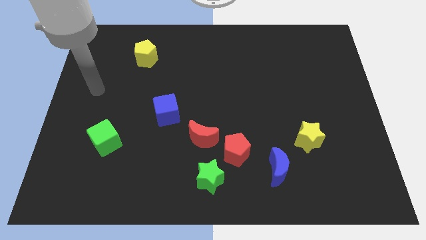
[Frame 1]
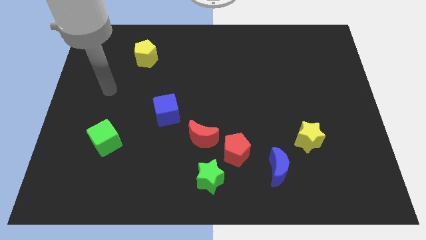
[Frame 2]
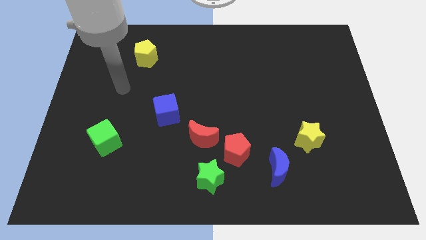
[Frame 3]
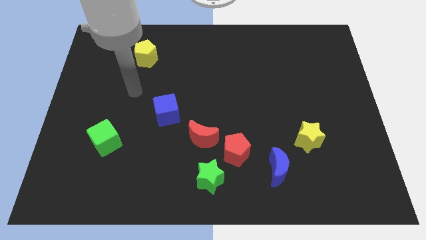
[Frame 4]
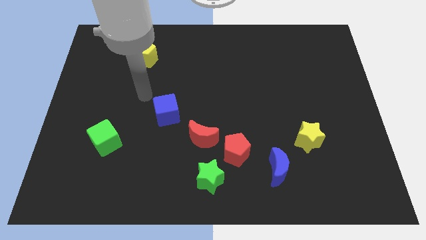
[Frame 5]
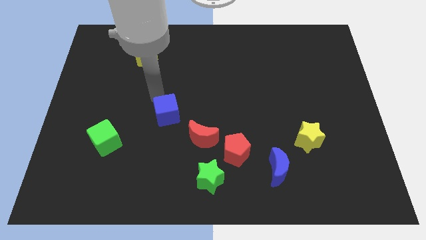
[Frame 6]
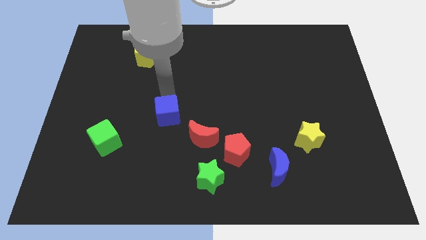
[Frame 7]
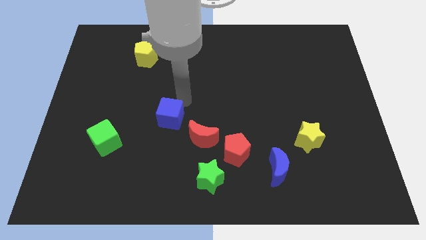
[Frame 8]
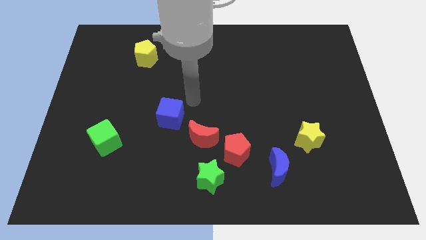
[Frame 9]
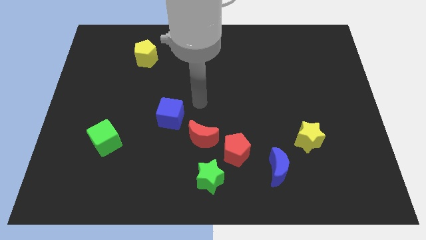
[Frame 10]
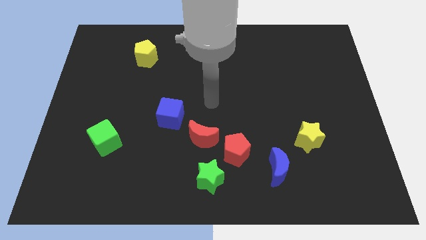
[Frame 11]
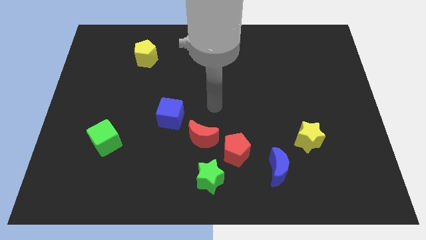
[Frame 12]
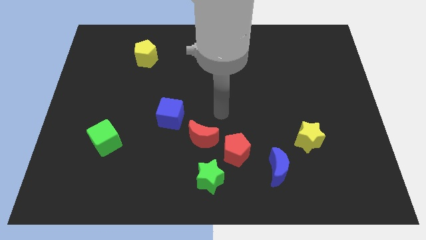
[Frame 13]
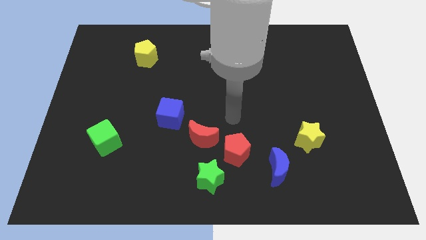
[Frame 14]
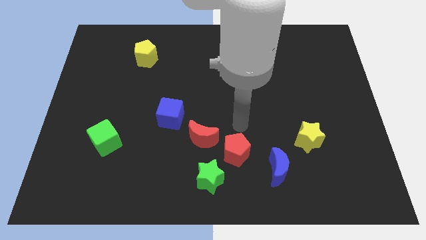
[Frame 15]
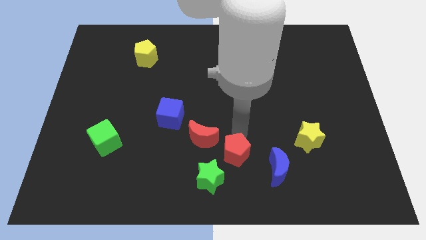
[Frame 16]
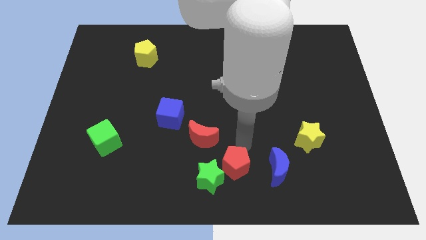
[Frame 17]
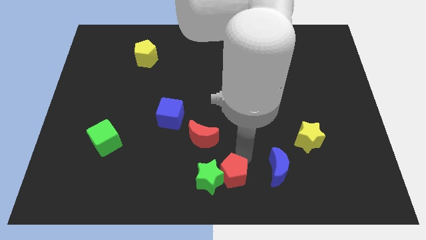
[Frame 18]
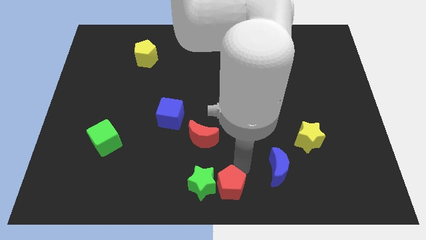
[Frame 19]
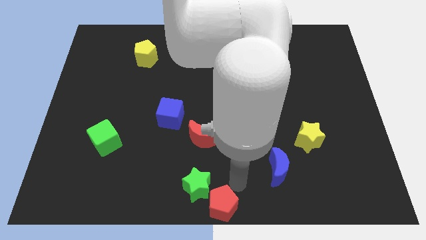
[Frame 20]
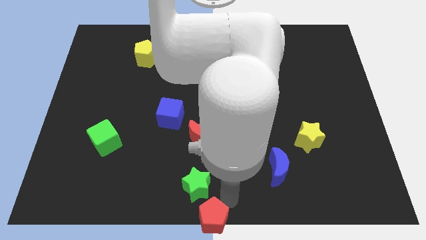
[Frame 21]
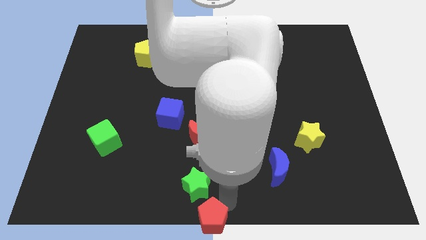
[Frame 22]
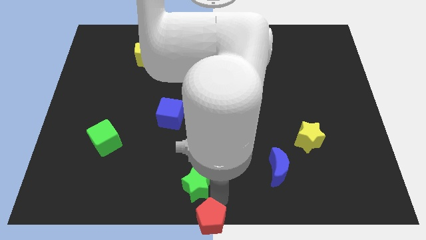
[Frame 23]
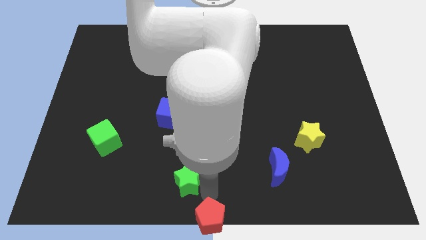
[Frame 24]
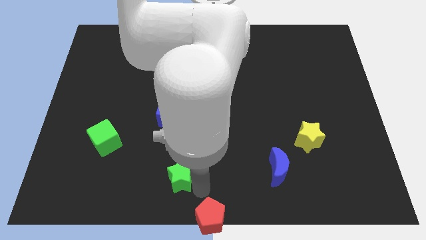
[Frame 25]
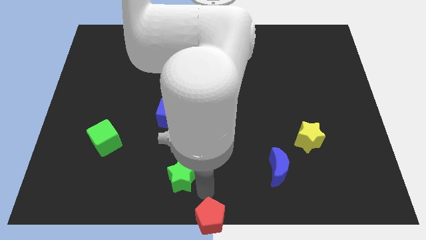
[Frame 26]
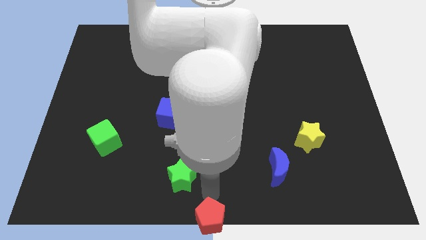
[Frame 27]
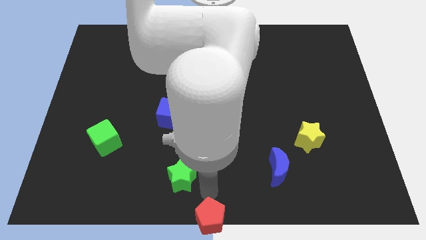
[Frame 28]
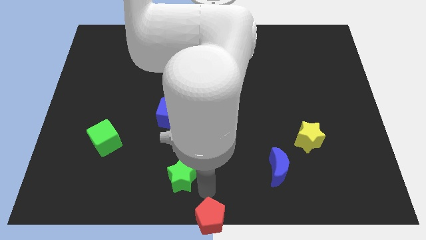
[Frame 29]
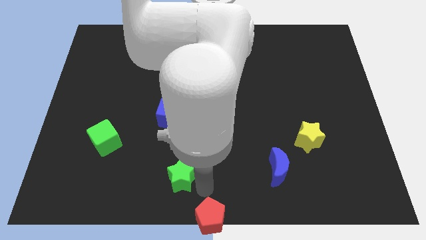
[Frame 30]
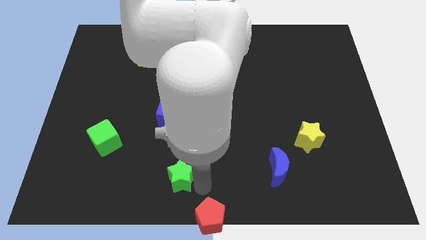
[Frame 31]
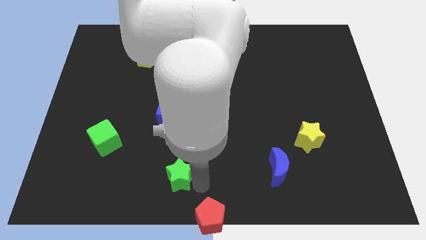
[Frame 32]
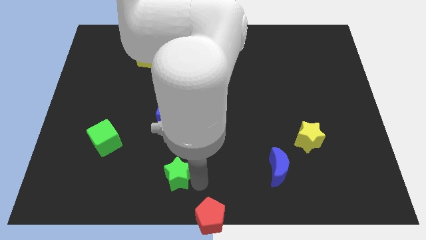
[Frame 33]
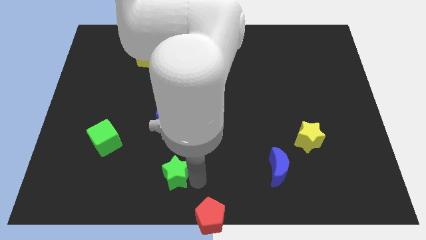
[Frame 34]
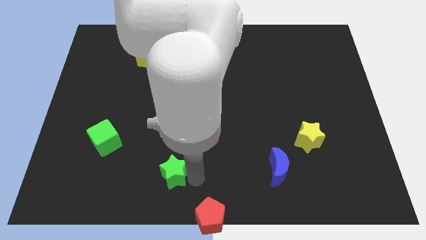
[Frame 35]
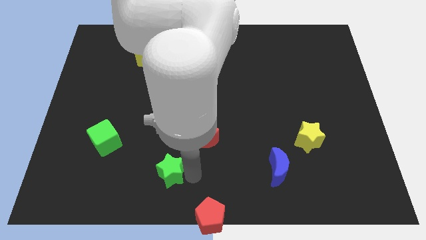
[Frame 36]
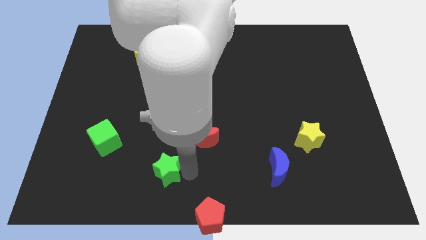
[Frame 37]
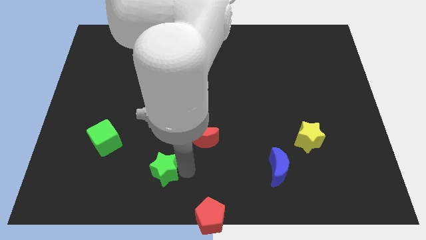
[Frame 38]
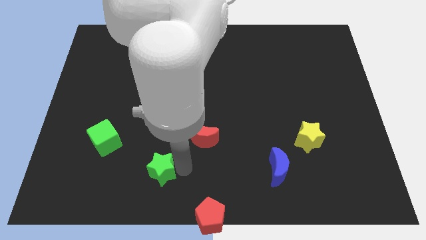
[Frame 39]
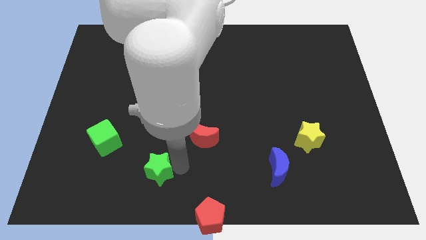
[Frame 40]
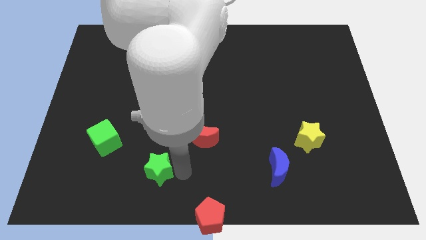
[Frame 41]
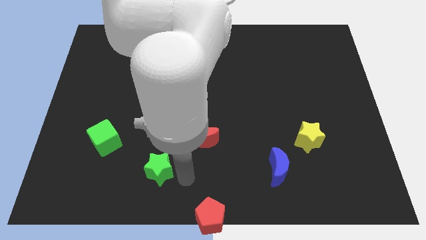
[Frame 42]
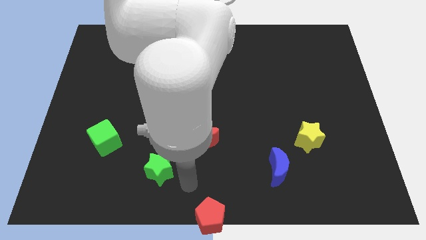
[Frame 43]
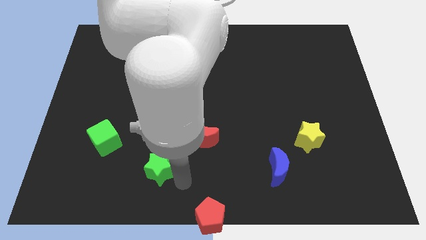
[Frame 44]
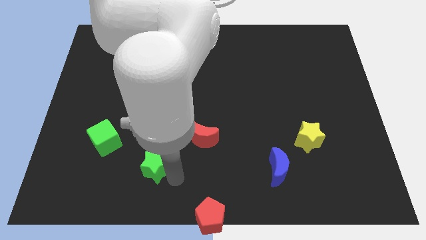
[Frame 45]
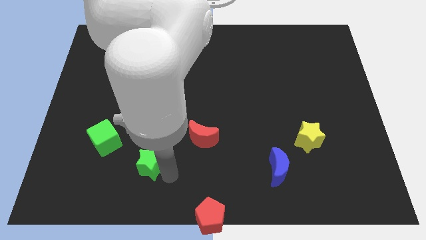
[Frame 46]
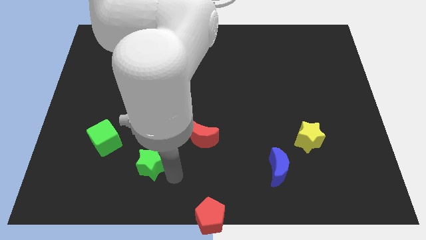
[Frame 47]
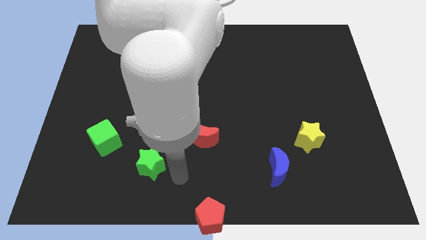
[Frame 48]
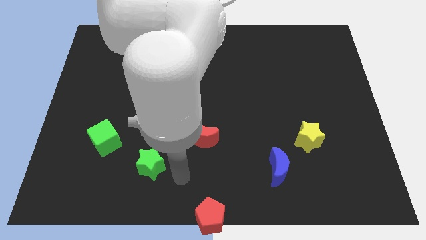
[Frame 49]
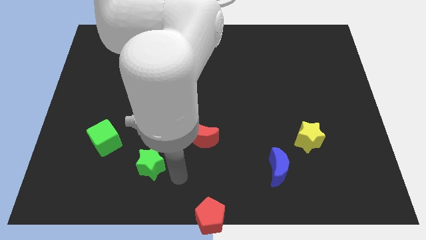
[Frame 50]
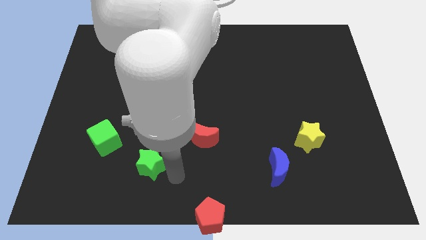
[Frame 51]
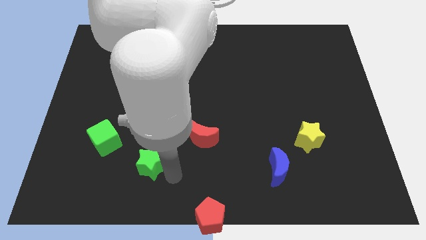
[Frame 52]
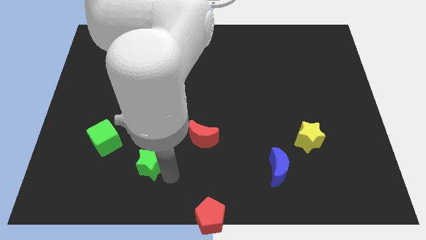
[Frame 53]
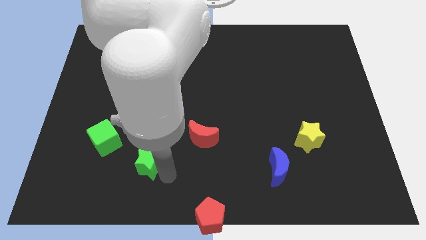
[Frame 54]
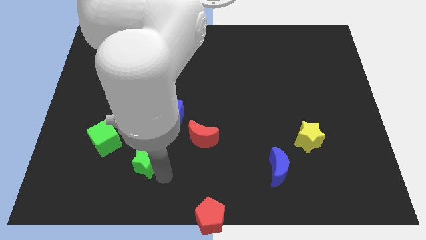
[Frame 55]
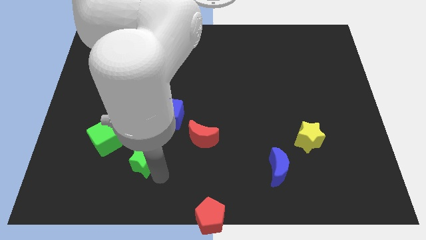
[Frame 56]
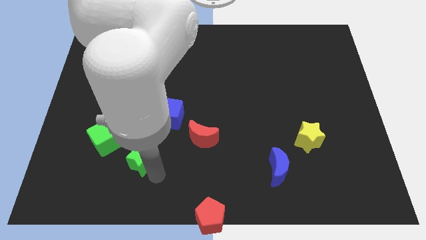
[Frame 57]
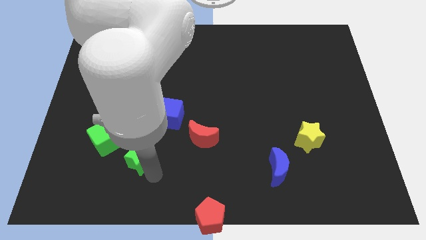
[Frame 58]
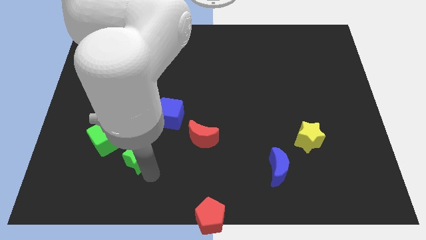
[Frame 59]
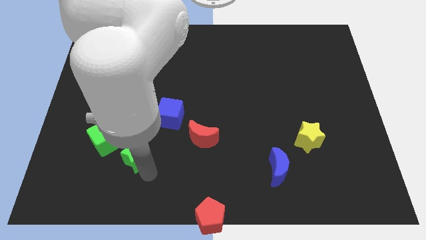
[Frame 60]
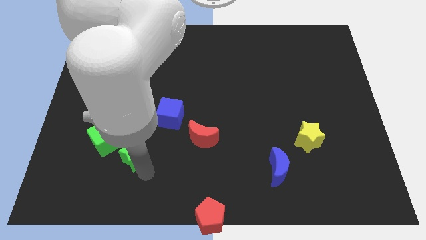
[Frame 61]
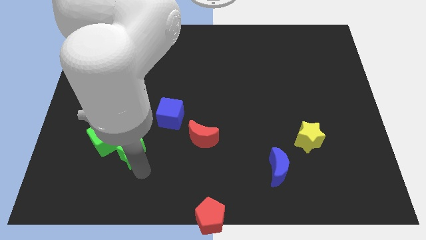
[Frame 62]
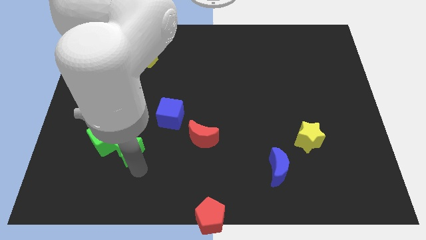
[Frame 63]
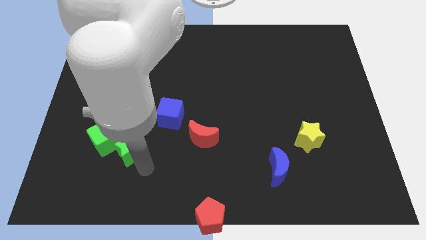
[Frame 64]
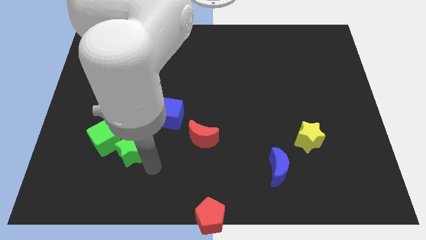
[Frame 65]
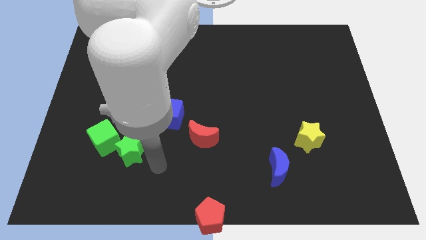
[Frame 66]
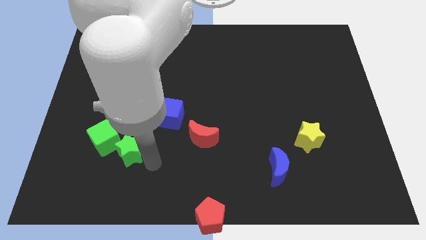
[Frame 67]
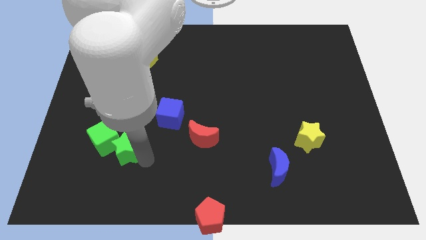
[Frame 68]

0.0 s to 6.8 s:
move the green star next to the green cube
